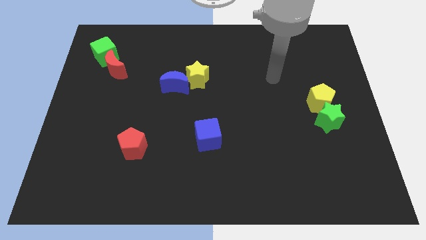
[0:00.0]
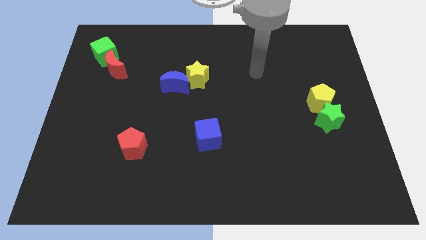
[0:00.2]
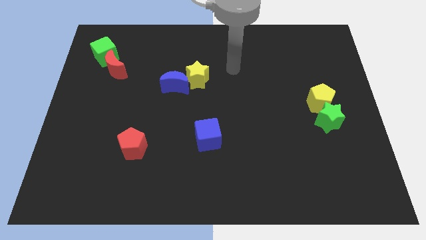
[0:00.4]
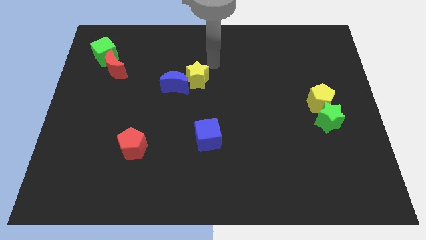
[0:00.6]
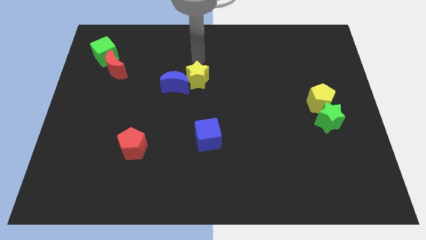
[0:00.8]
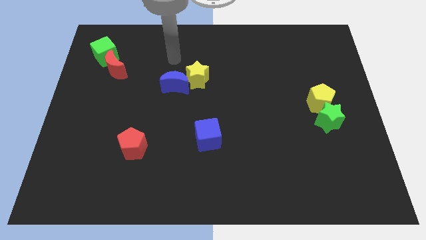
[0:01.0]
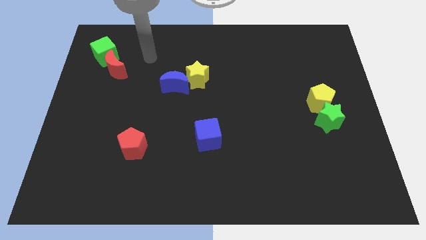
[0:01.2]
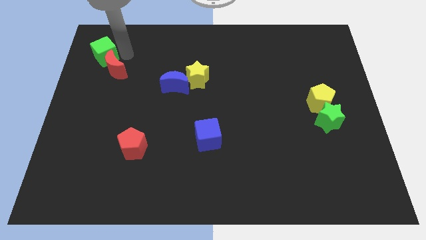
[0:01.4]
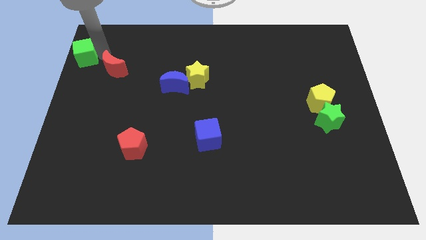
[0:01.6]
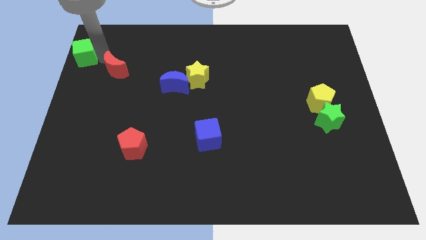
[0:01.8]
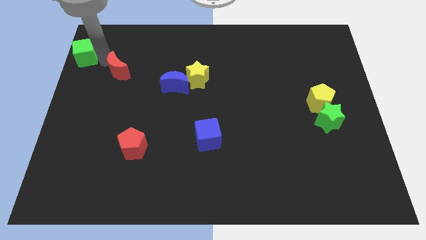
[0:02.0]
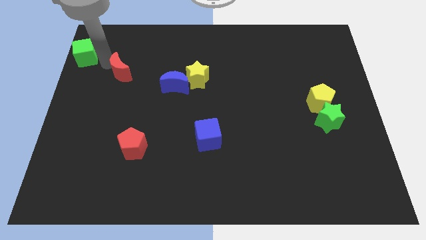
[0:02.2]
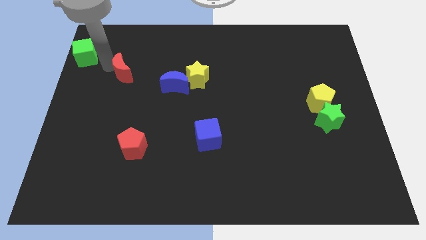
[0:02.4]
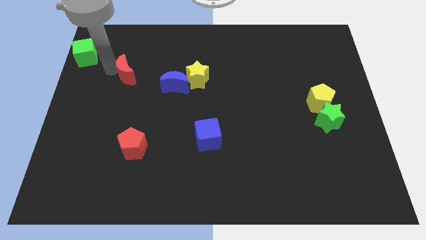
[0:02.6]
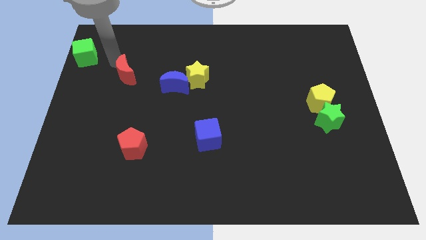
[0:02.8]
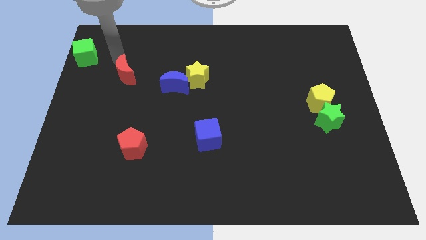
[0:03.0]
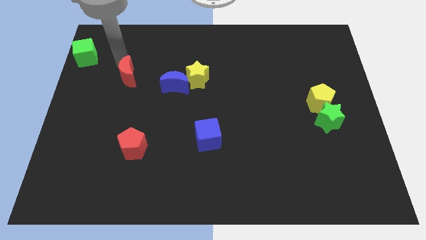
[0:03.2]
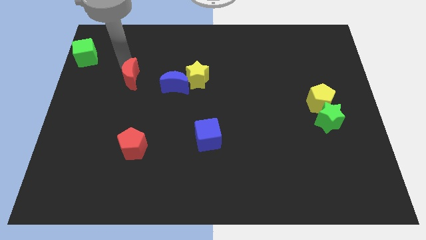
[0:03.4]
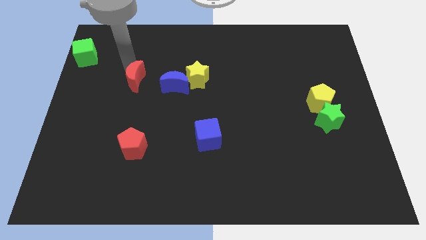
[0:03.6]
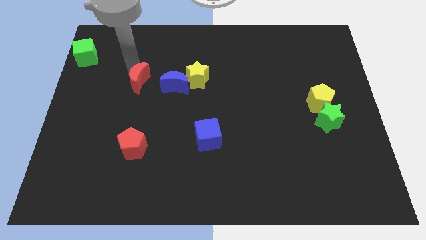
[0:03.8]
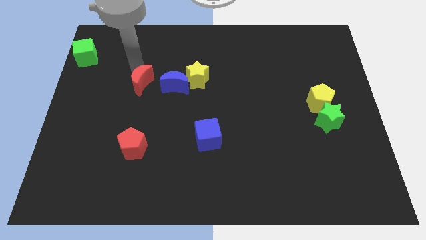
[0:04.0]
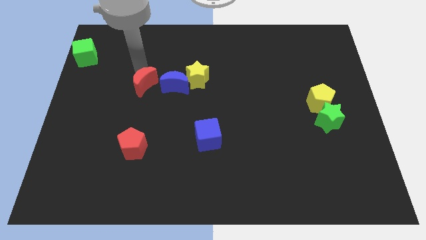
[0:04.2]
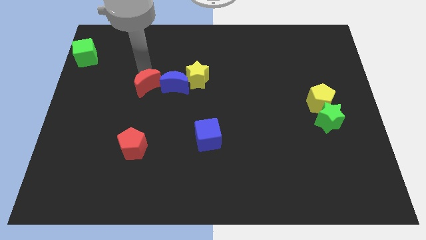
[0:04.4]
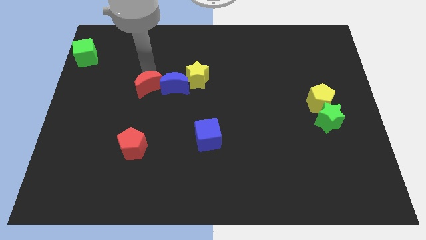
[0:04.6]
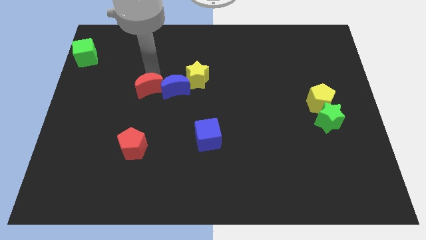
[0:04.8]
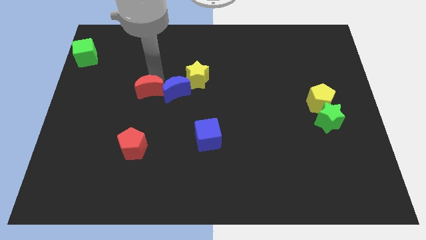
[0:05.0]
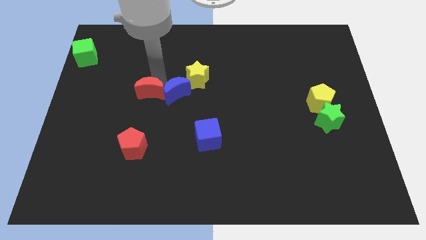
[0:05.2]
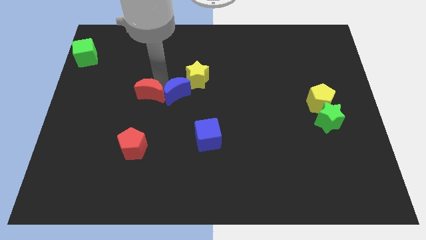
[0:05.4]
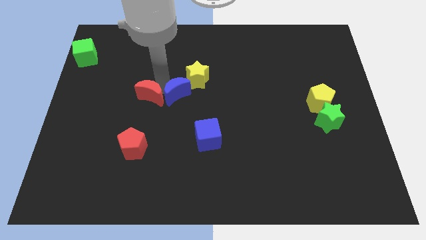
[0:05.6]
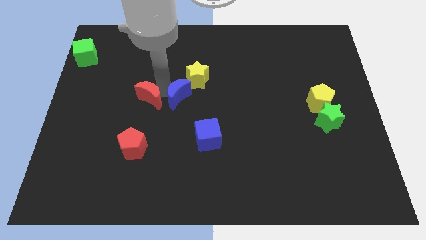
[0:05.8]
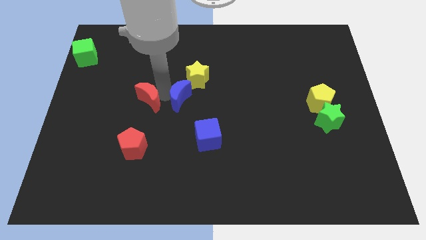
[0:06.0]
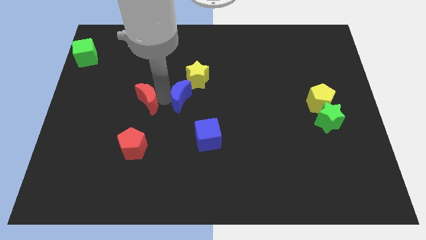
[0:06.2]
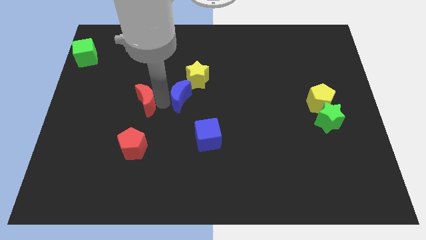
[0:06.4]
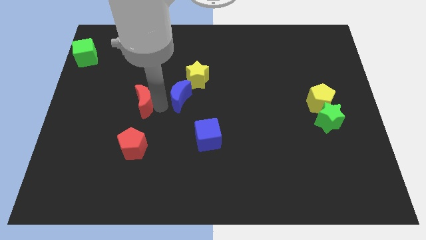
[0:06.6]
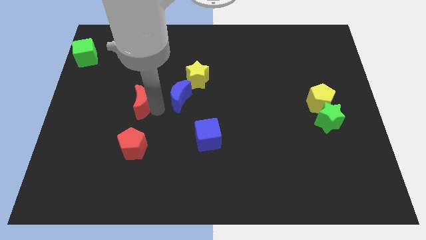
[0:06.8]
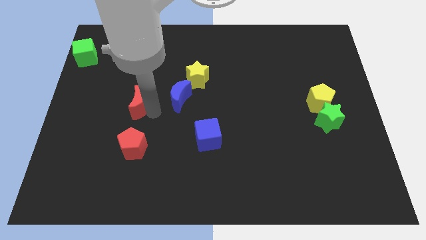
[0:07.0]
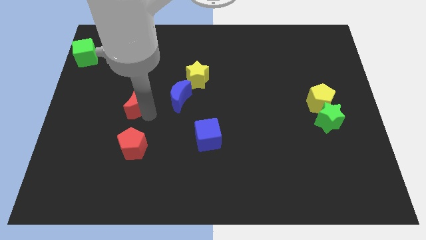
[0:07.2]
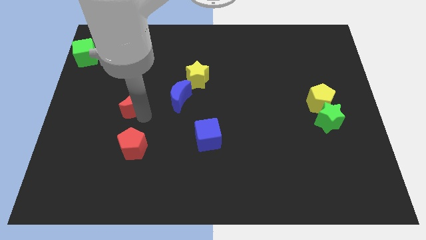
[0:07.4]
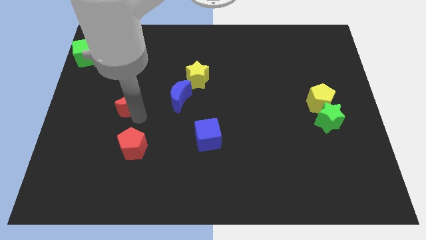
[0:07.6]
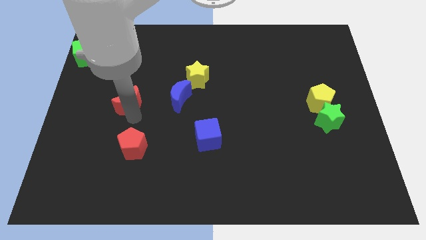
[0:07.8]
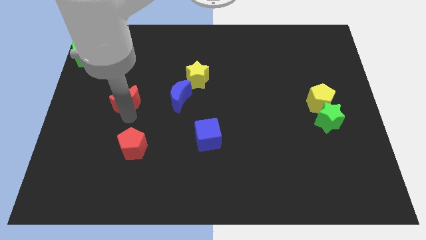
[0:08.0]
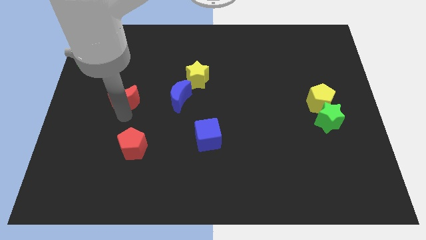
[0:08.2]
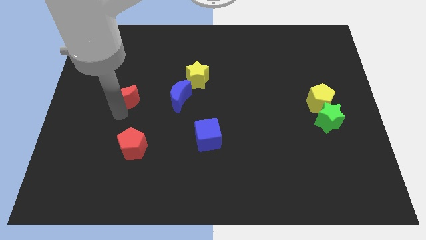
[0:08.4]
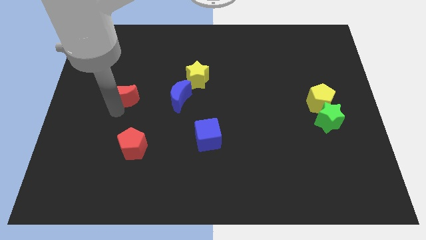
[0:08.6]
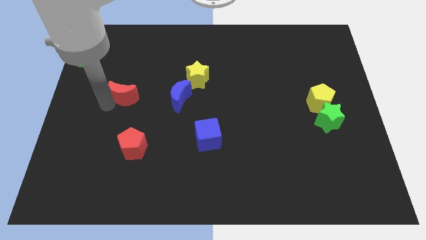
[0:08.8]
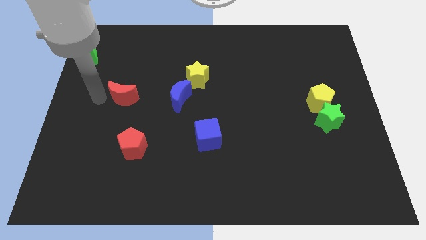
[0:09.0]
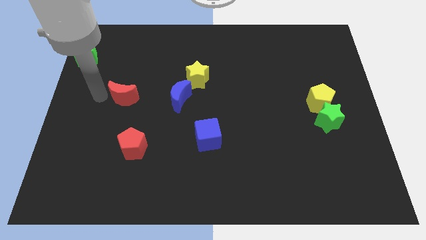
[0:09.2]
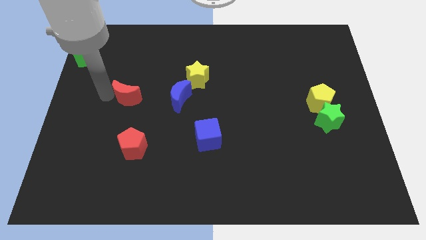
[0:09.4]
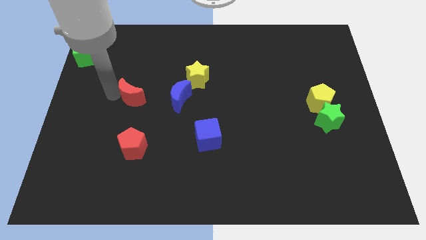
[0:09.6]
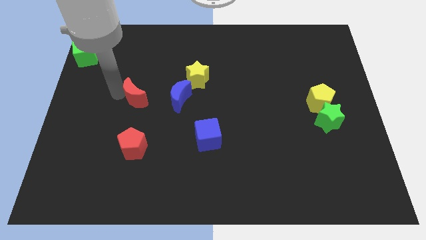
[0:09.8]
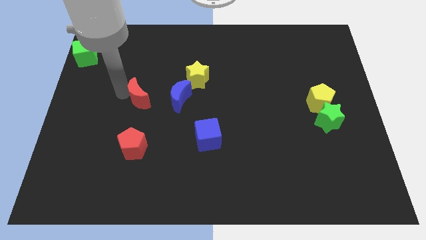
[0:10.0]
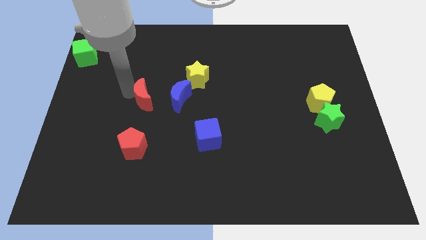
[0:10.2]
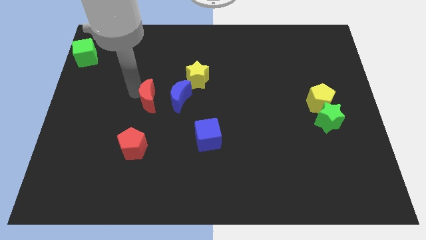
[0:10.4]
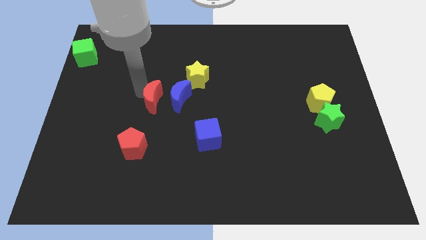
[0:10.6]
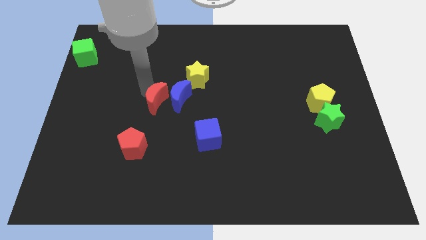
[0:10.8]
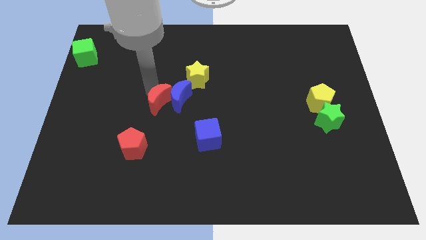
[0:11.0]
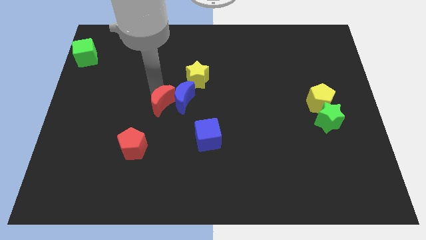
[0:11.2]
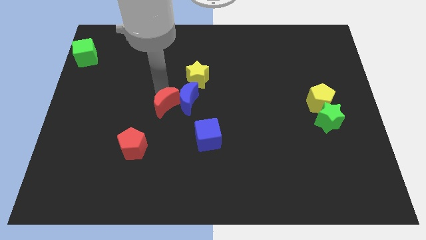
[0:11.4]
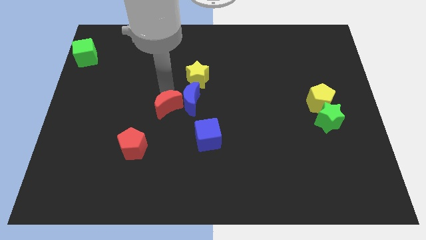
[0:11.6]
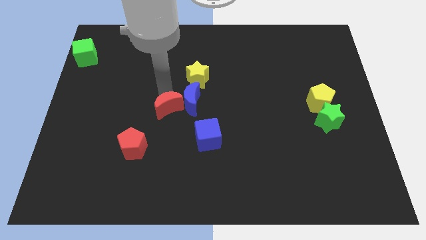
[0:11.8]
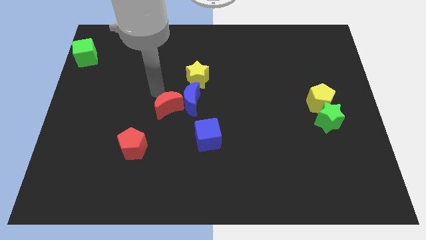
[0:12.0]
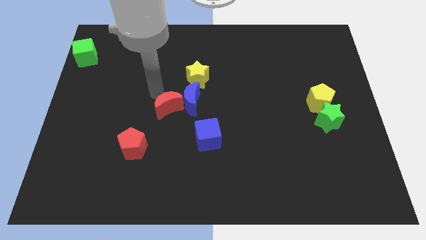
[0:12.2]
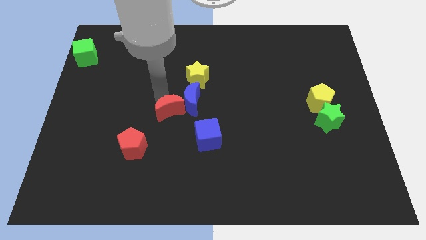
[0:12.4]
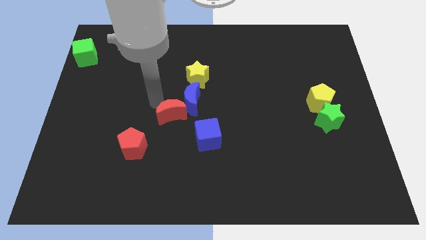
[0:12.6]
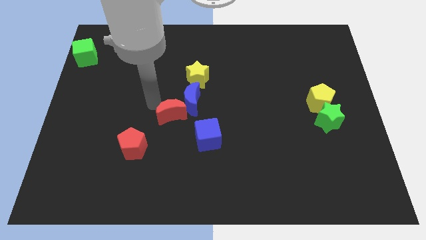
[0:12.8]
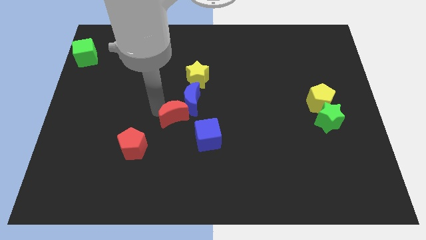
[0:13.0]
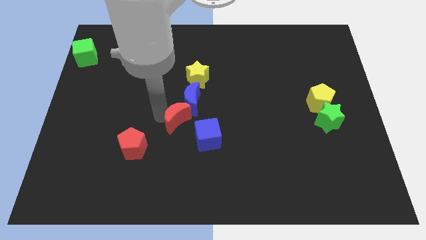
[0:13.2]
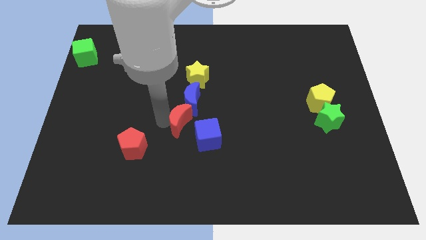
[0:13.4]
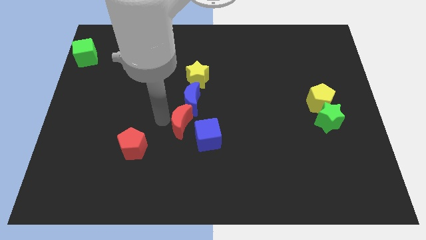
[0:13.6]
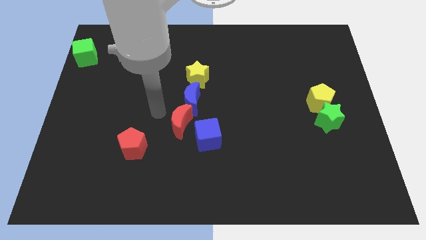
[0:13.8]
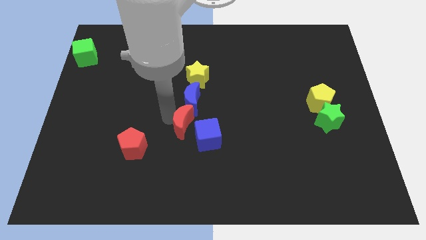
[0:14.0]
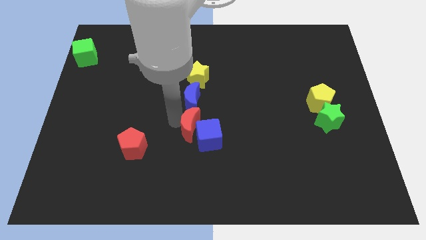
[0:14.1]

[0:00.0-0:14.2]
push the red moon close to the blue cube
